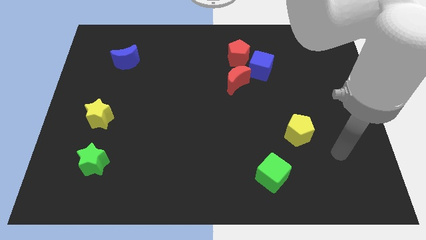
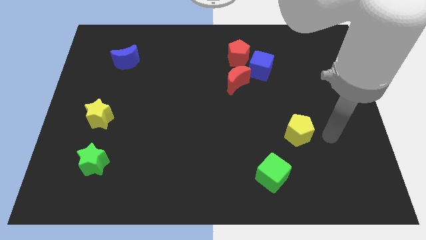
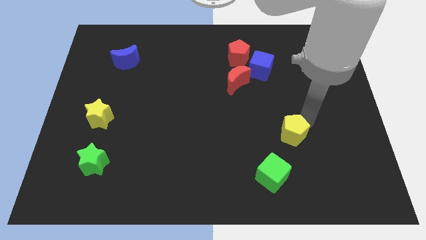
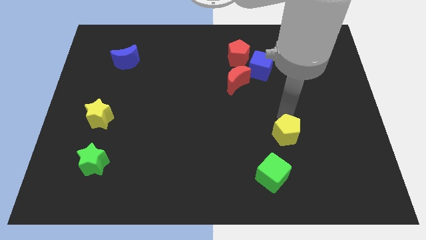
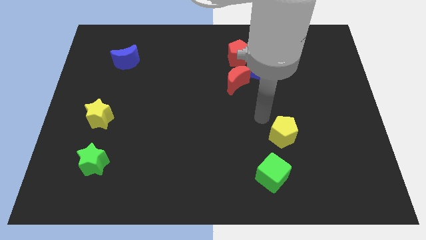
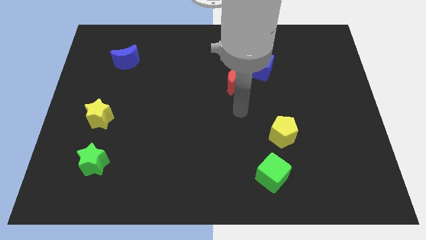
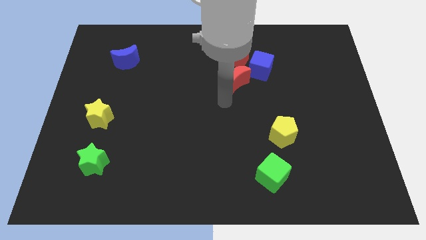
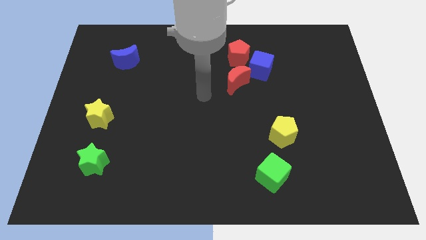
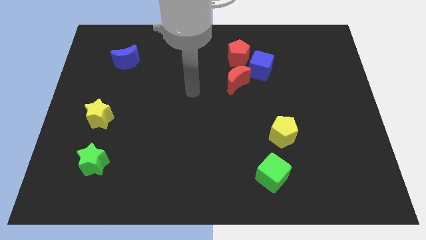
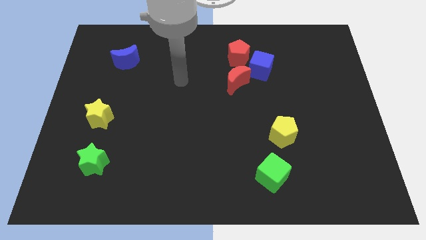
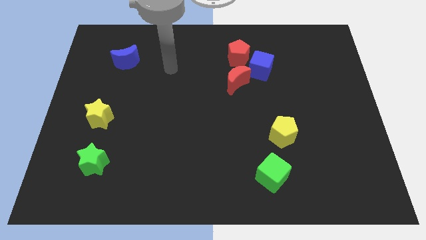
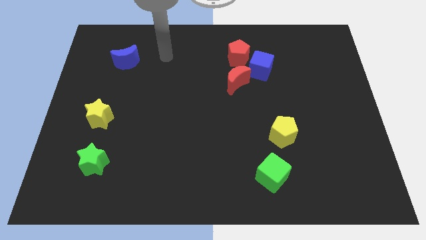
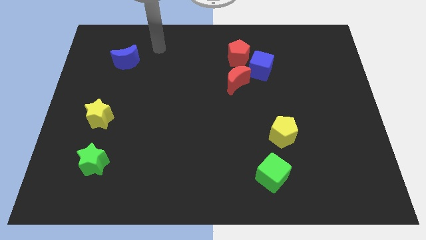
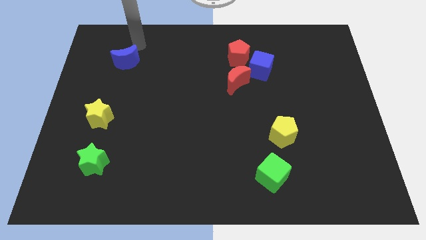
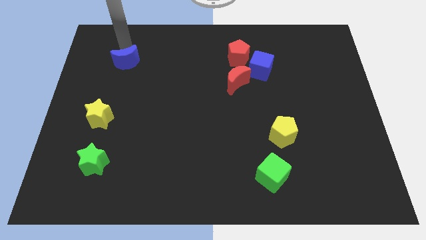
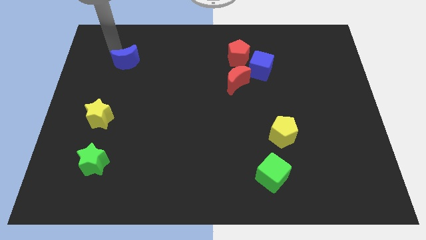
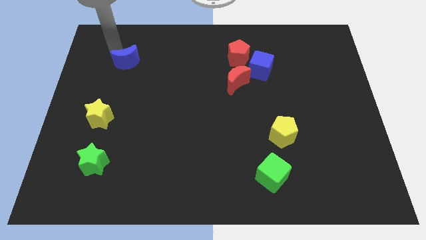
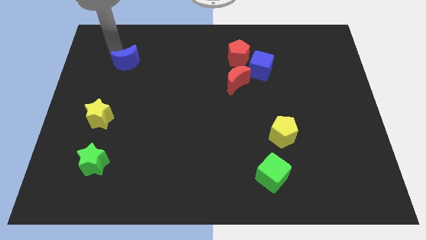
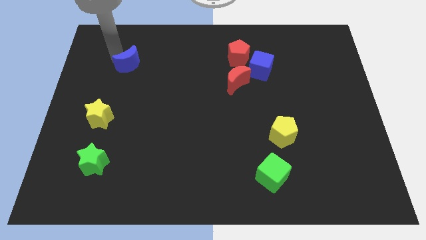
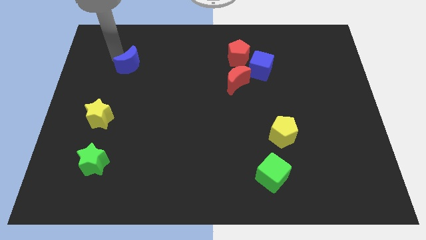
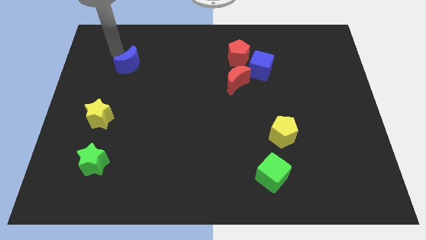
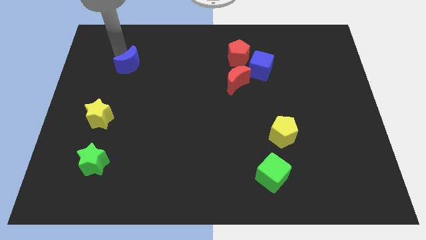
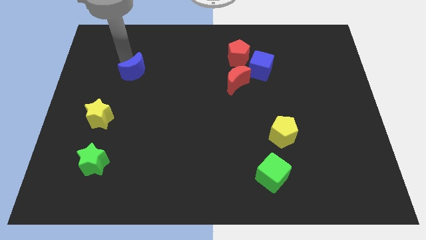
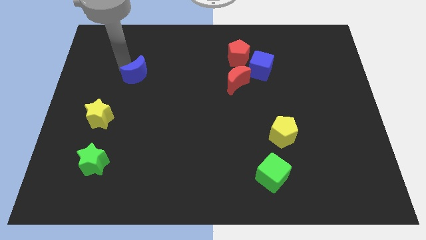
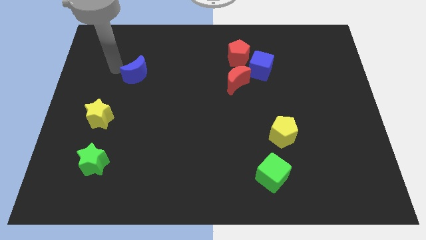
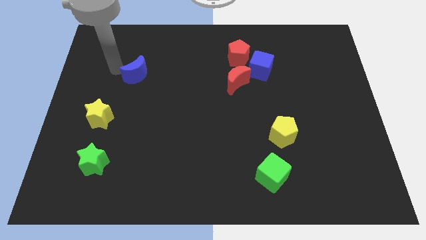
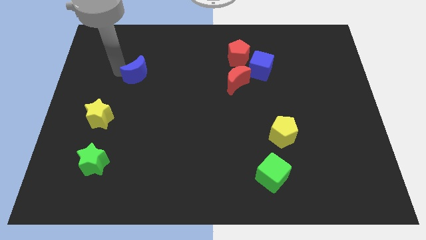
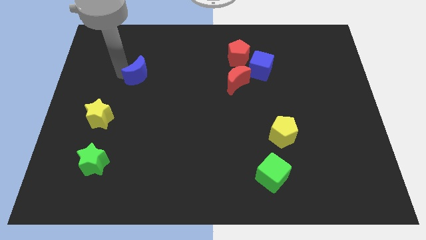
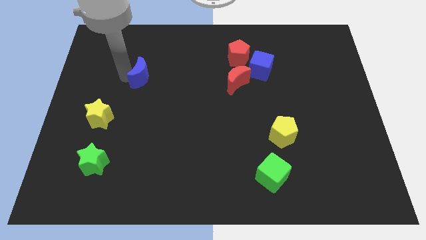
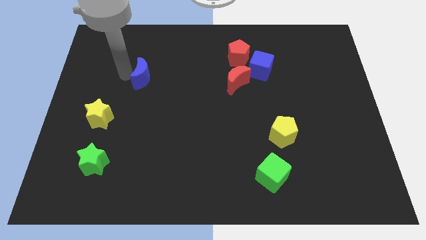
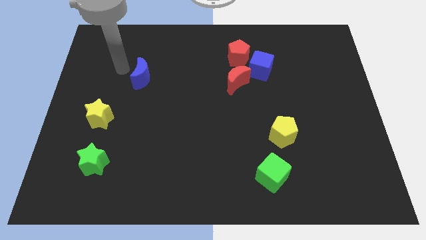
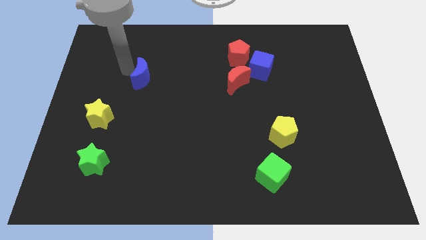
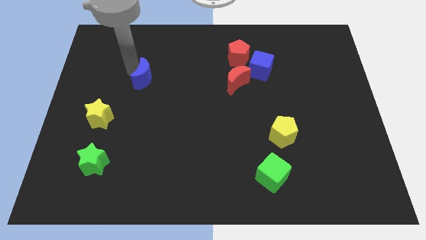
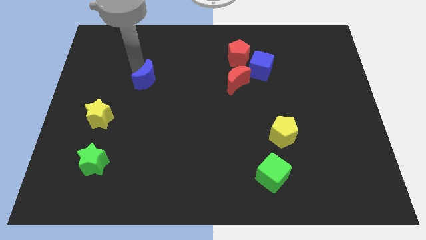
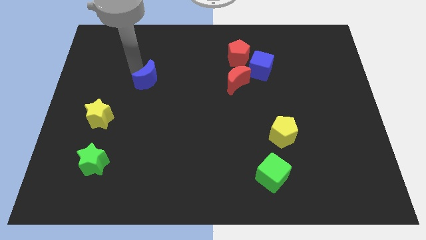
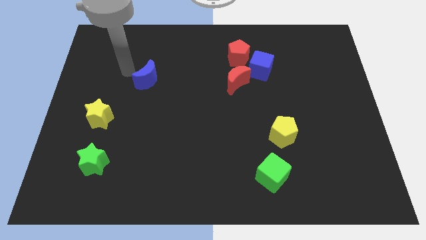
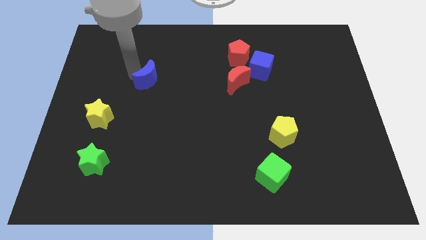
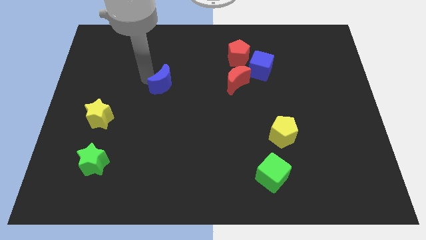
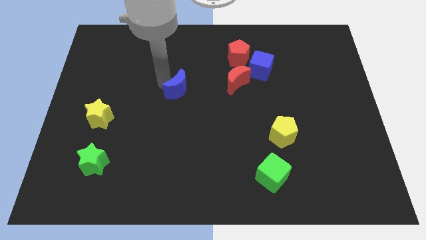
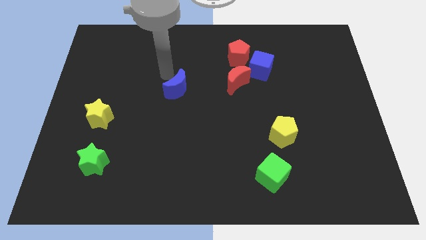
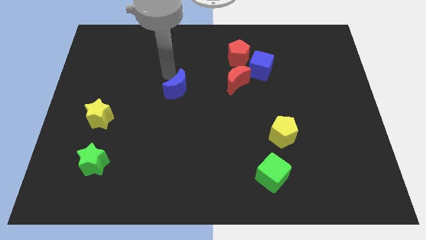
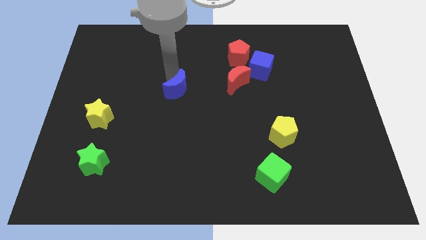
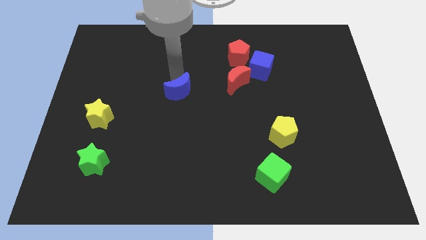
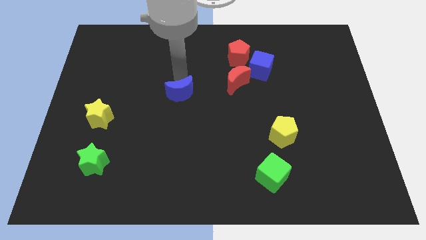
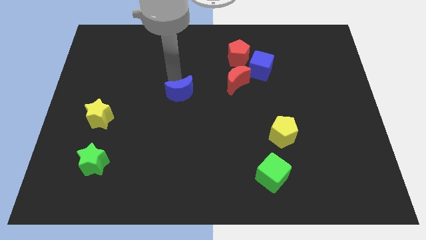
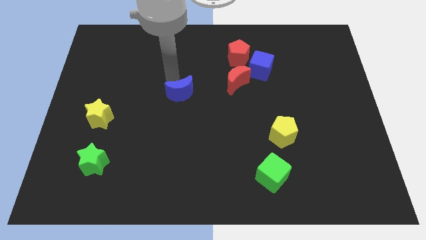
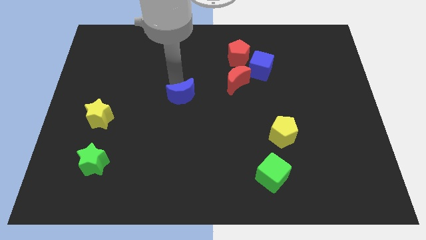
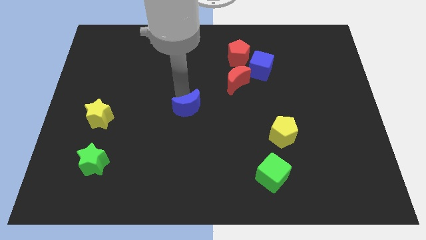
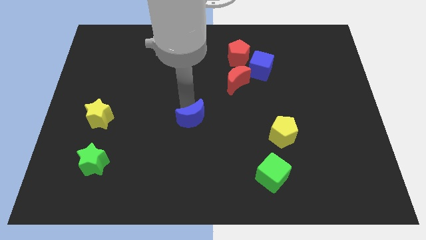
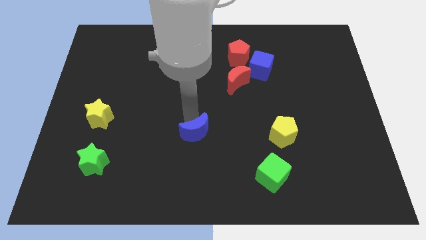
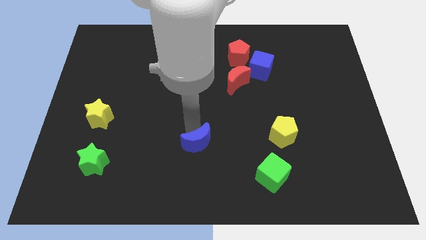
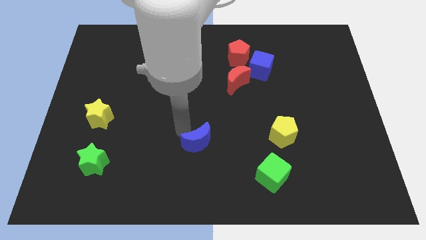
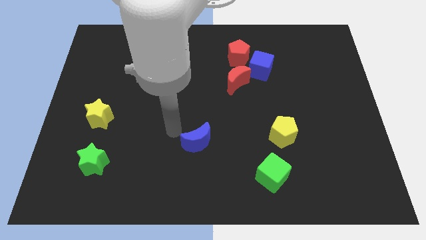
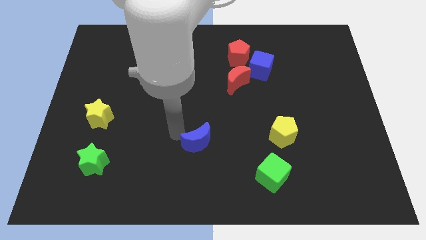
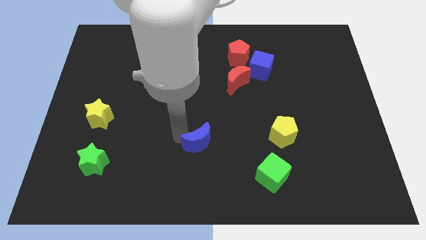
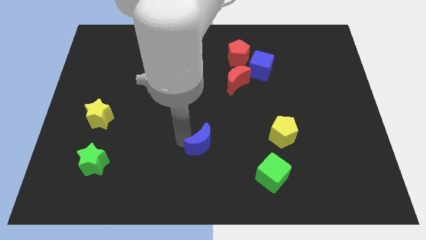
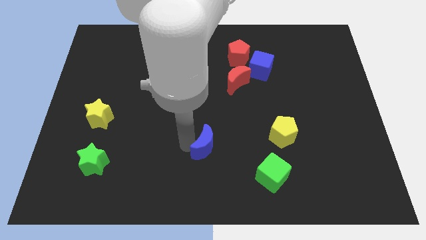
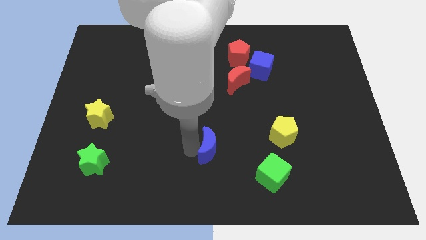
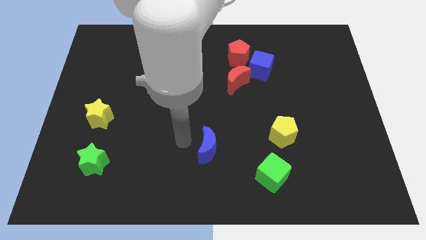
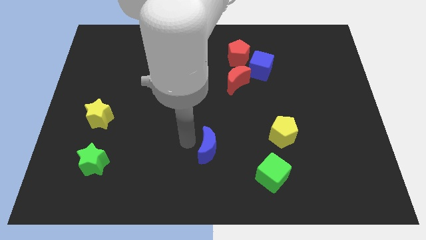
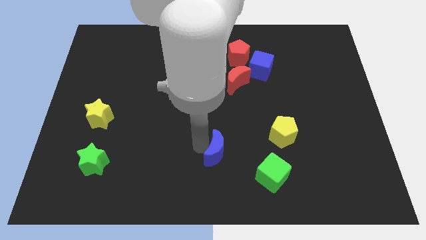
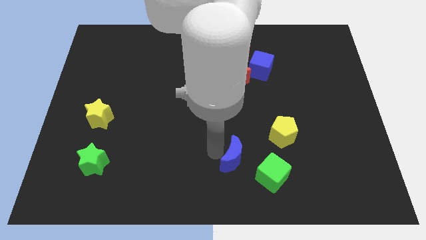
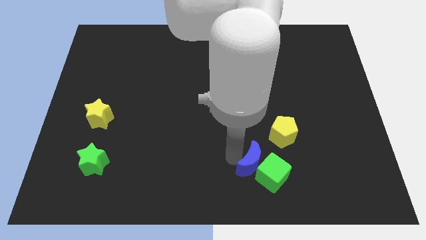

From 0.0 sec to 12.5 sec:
put the blue moon towards the green cube

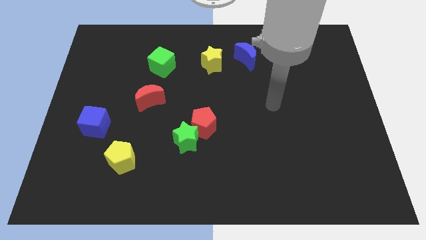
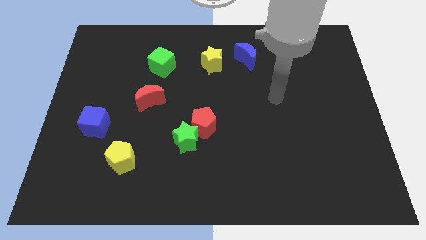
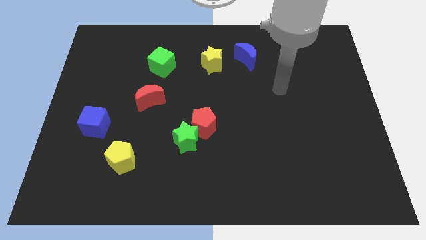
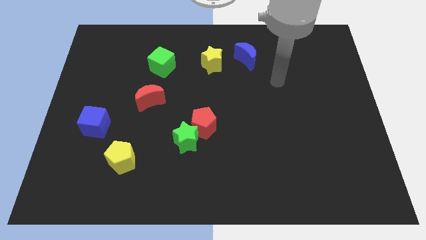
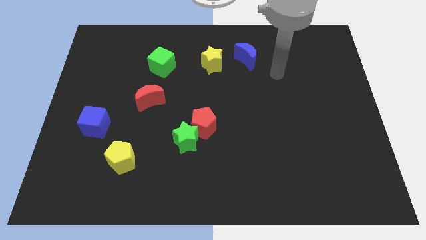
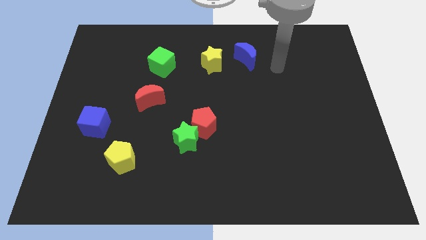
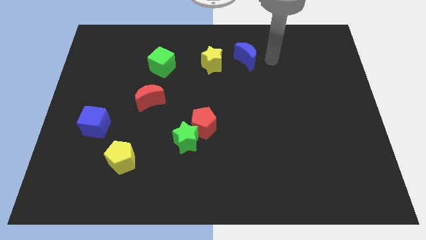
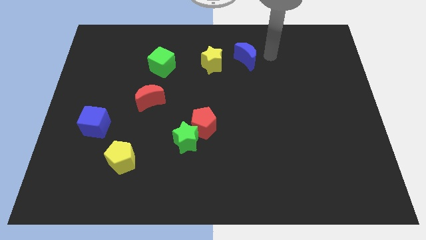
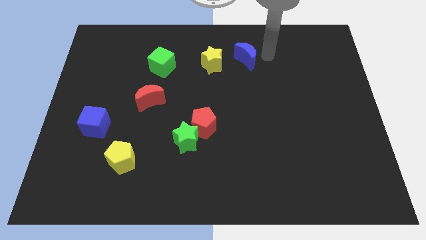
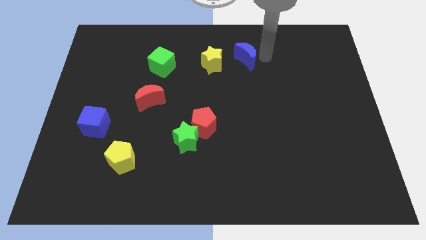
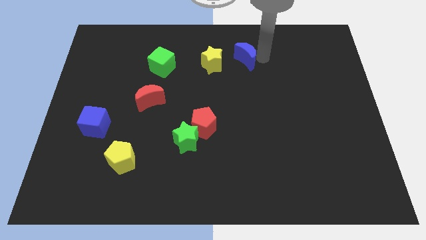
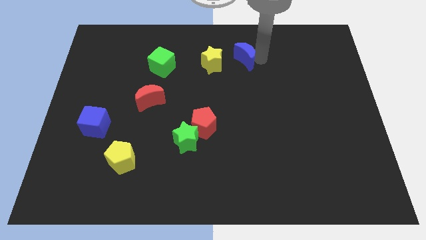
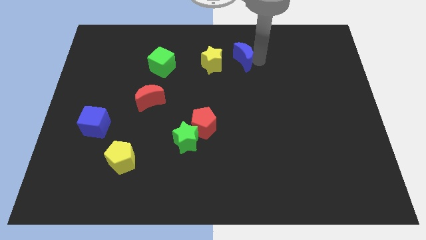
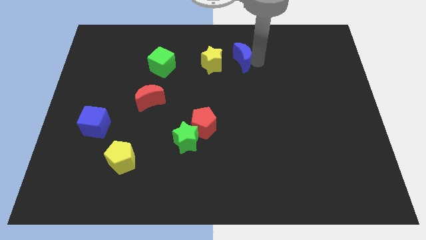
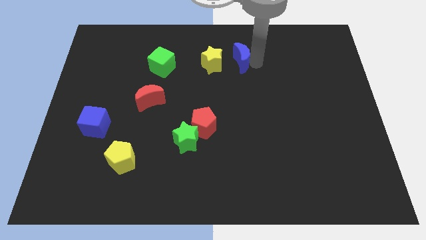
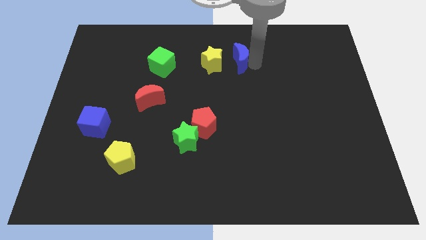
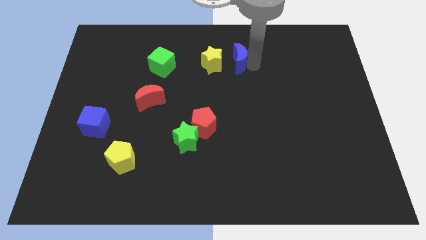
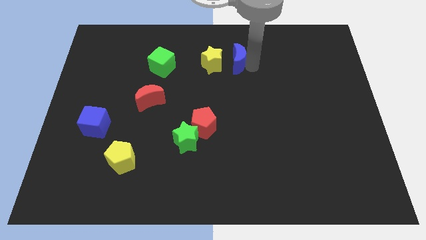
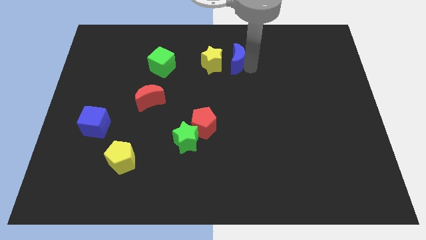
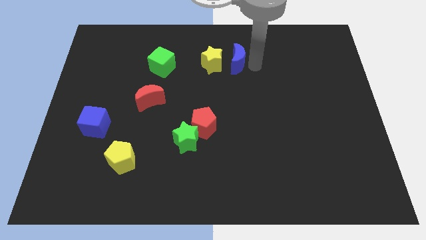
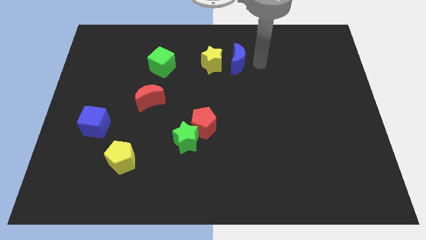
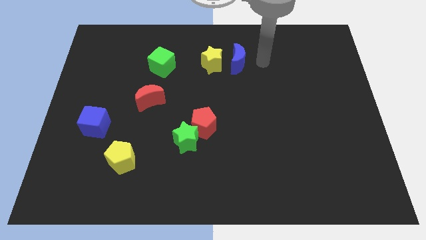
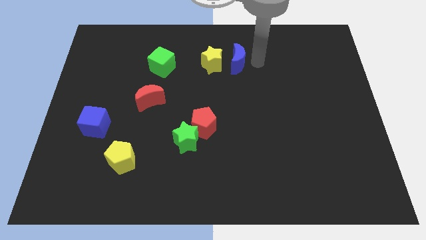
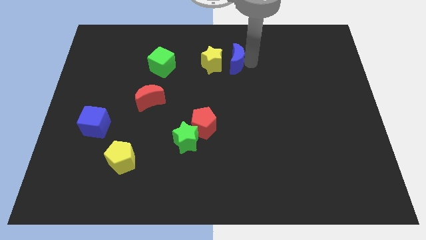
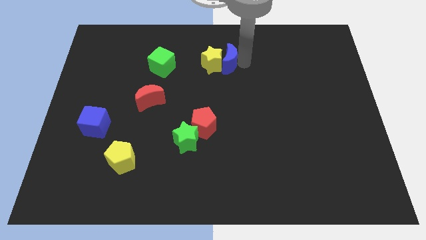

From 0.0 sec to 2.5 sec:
slide the blue moon close to the yellow star
